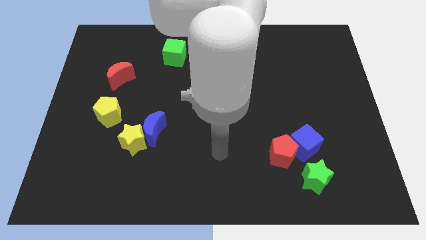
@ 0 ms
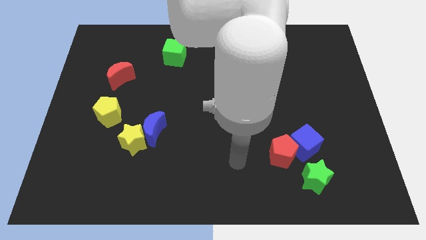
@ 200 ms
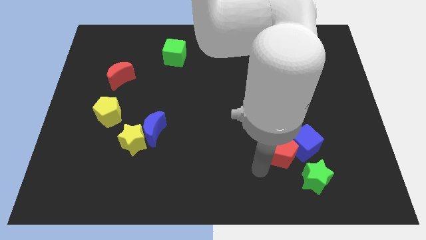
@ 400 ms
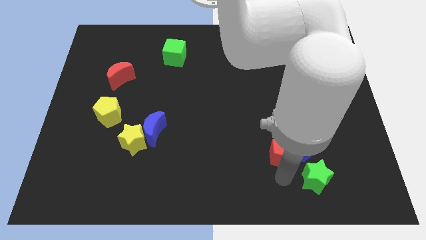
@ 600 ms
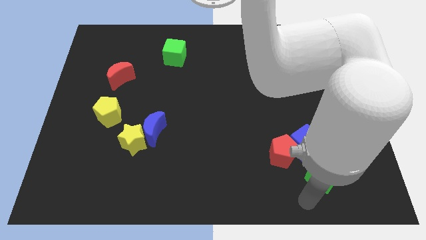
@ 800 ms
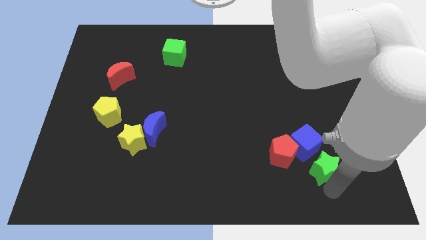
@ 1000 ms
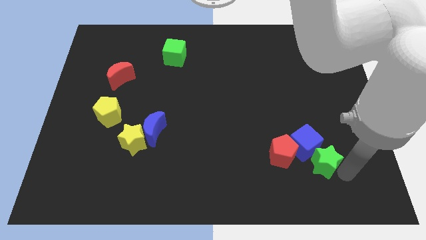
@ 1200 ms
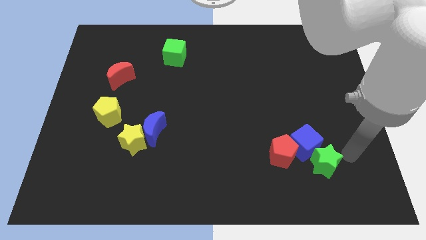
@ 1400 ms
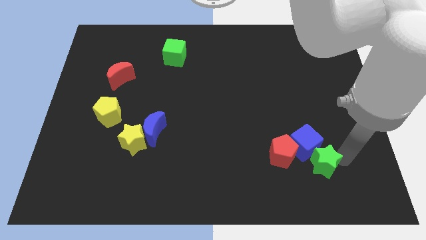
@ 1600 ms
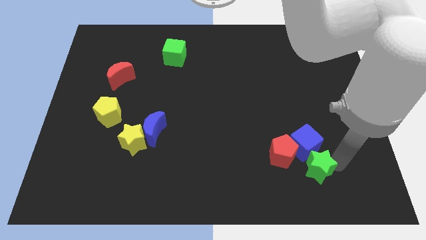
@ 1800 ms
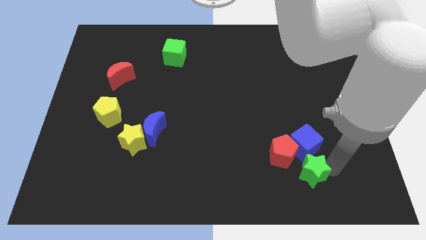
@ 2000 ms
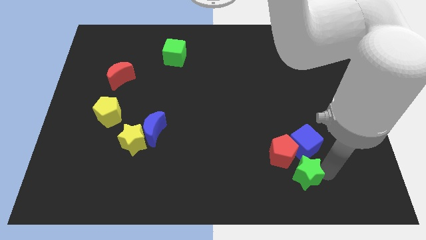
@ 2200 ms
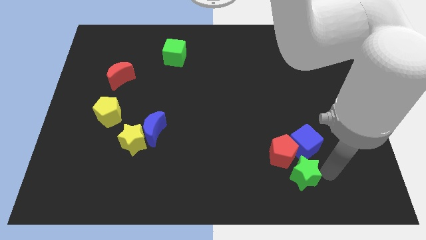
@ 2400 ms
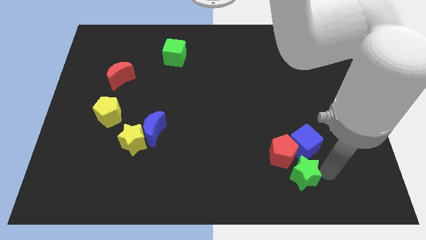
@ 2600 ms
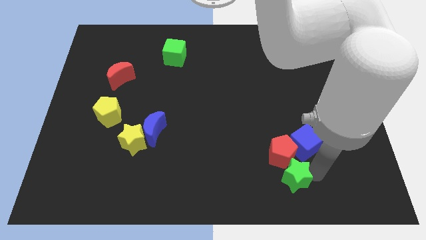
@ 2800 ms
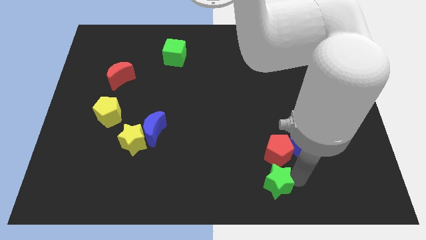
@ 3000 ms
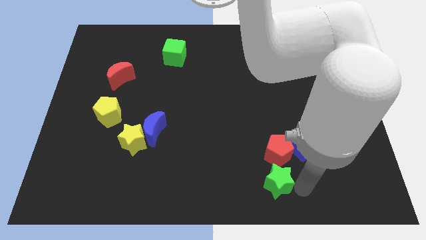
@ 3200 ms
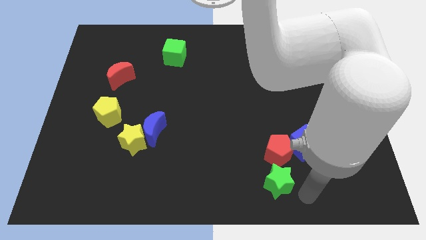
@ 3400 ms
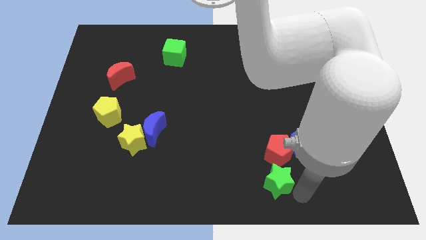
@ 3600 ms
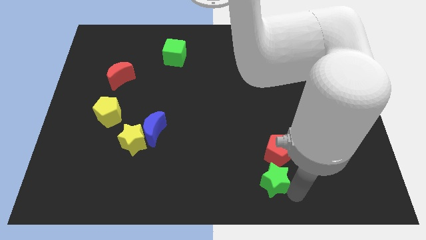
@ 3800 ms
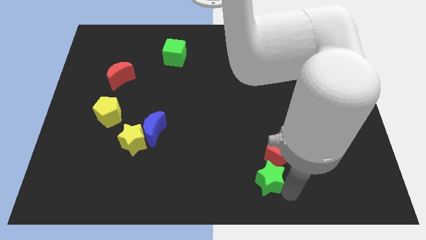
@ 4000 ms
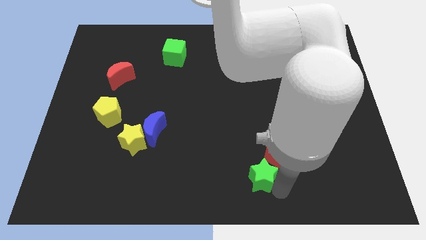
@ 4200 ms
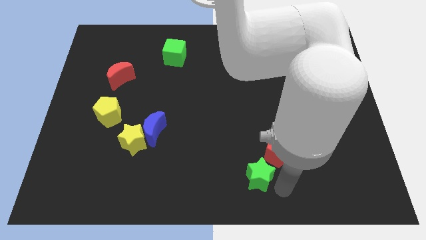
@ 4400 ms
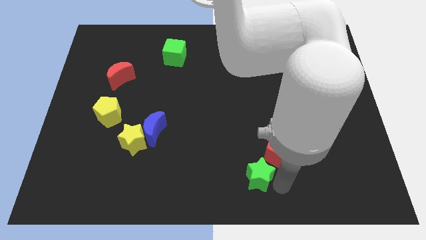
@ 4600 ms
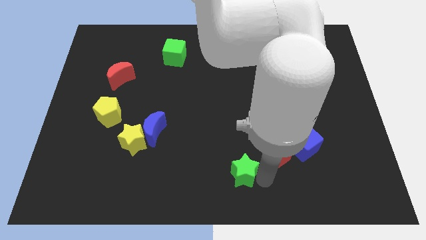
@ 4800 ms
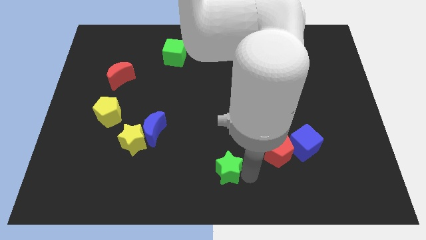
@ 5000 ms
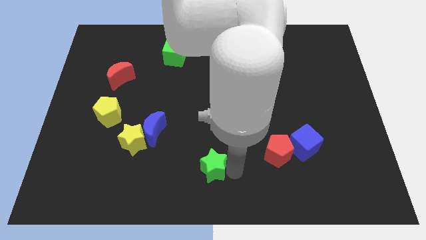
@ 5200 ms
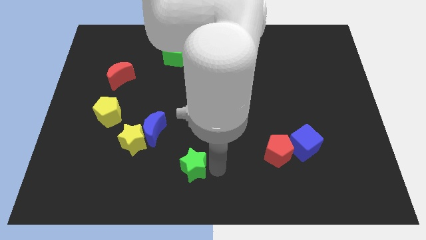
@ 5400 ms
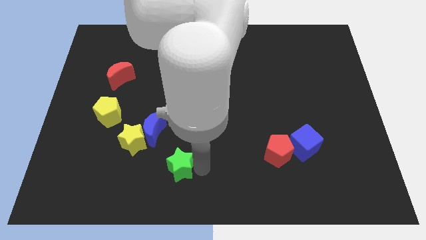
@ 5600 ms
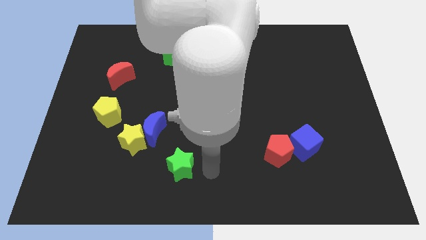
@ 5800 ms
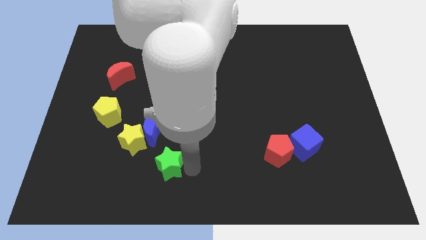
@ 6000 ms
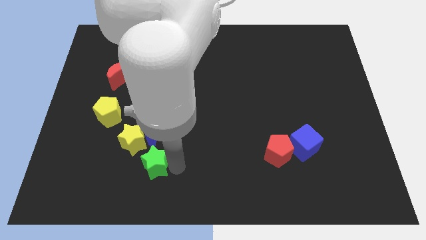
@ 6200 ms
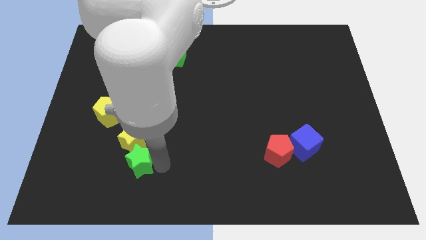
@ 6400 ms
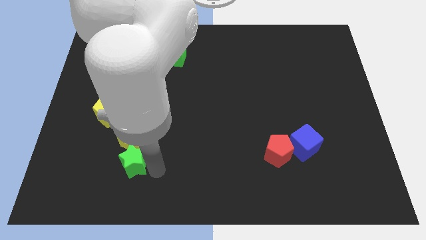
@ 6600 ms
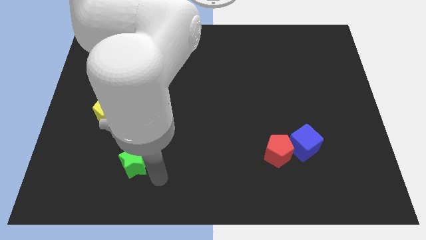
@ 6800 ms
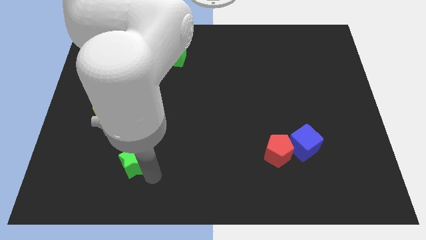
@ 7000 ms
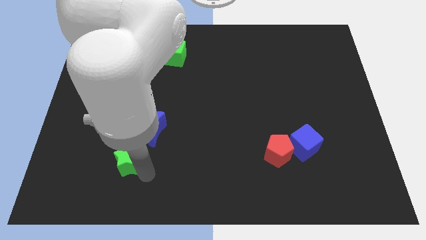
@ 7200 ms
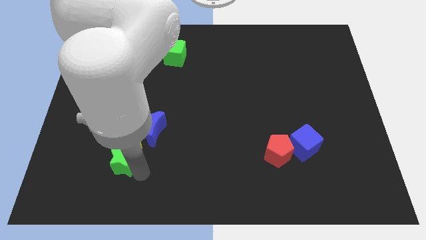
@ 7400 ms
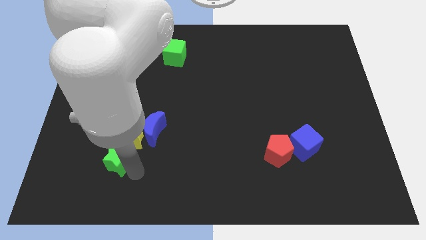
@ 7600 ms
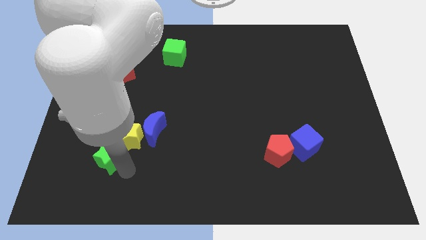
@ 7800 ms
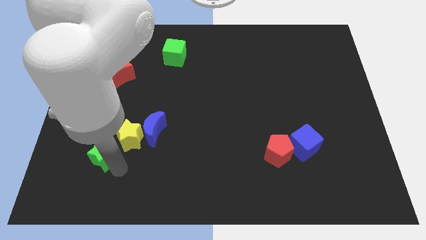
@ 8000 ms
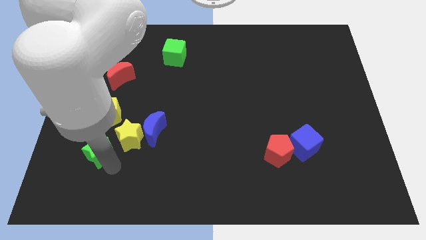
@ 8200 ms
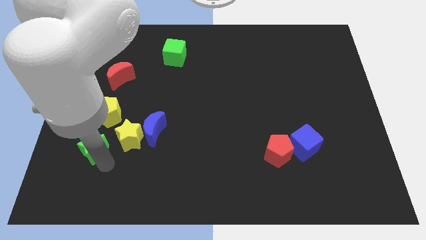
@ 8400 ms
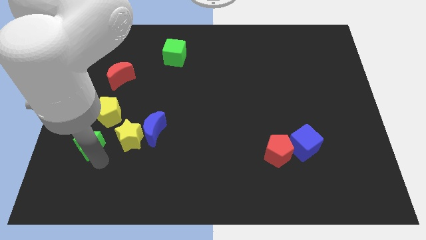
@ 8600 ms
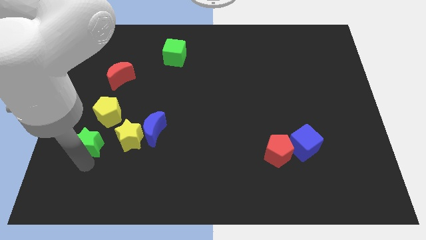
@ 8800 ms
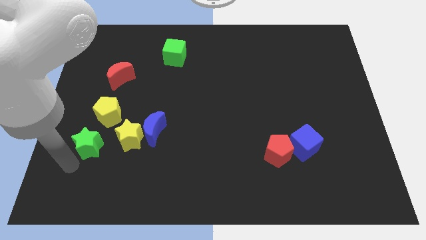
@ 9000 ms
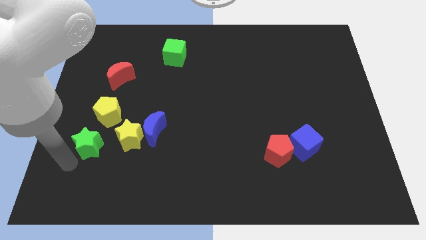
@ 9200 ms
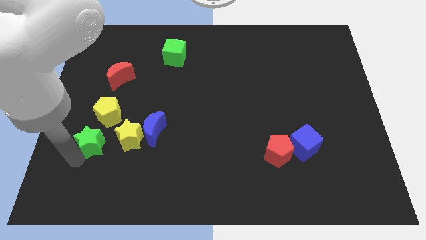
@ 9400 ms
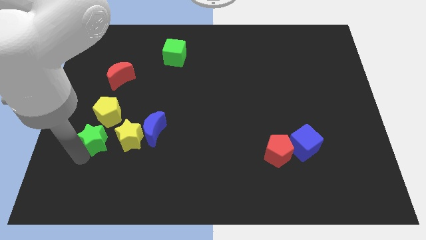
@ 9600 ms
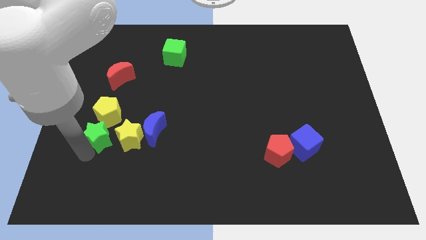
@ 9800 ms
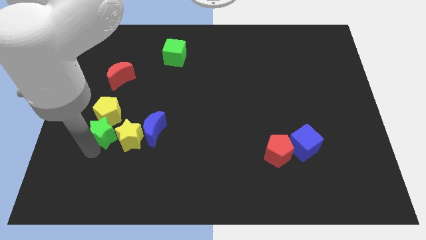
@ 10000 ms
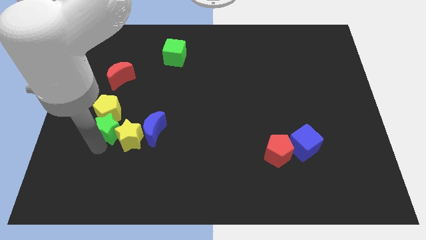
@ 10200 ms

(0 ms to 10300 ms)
move the green star below the red moon

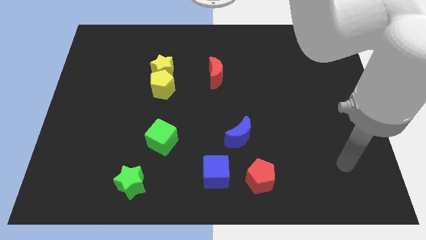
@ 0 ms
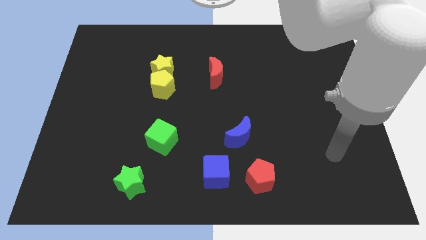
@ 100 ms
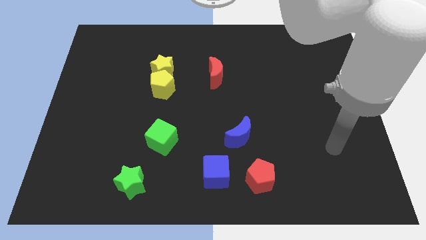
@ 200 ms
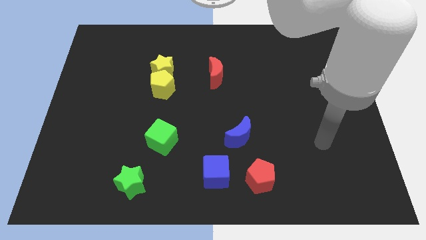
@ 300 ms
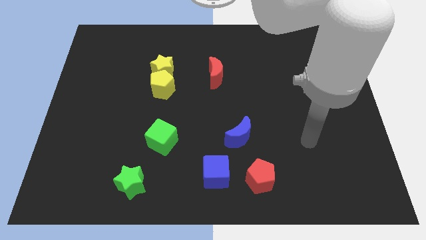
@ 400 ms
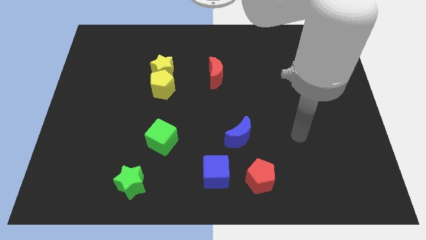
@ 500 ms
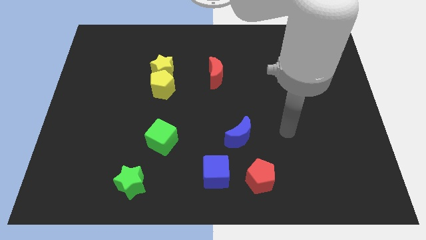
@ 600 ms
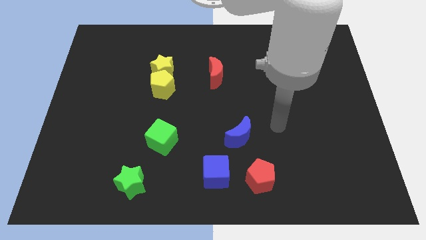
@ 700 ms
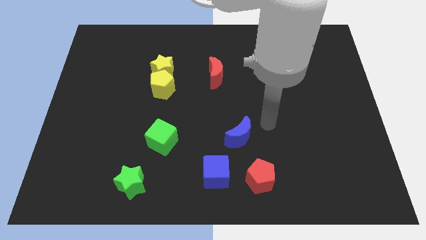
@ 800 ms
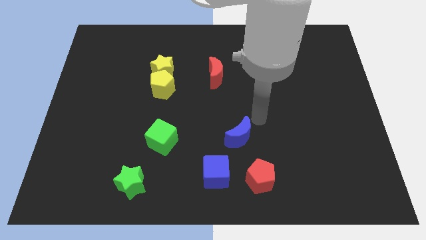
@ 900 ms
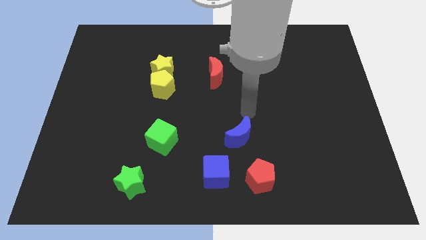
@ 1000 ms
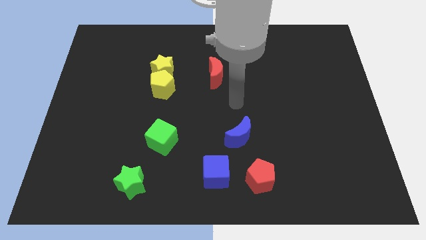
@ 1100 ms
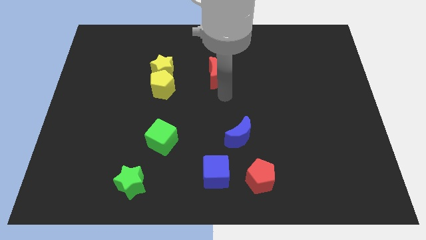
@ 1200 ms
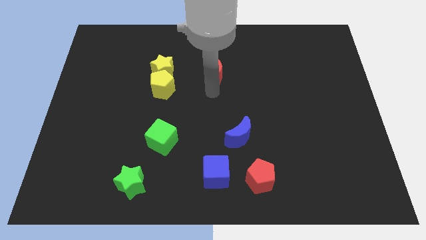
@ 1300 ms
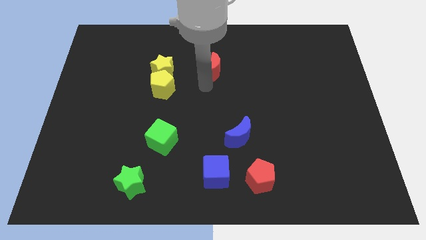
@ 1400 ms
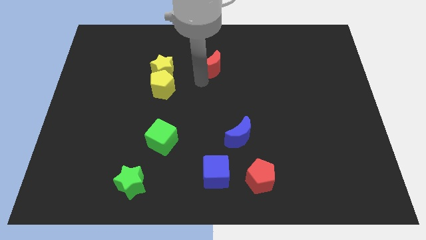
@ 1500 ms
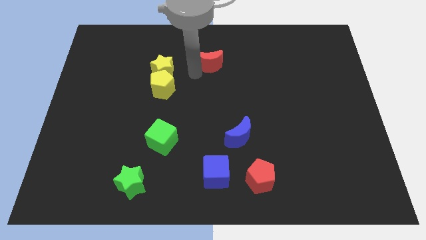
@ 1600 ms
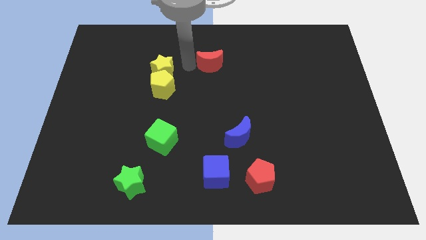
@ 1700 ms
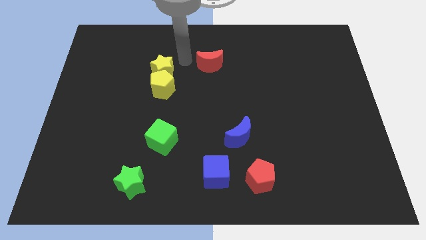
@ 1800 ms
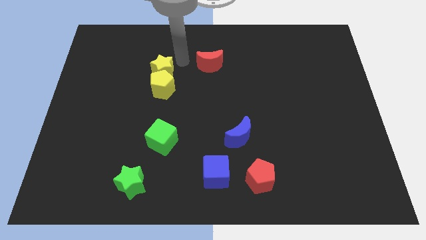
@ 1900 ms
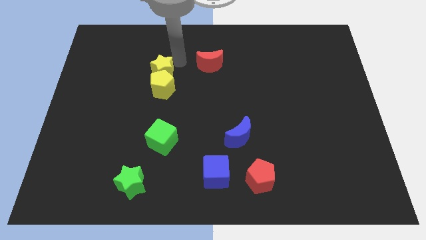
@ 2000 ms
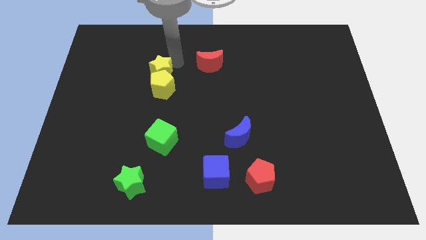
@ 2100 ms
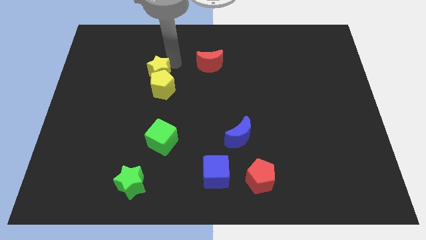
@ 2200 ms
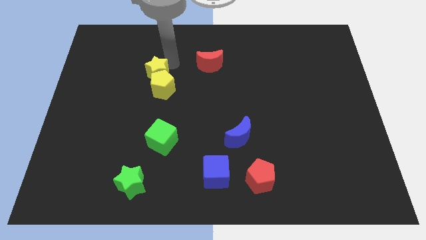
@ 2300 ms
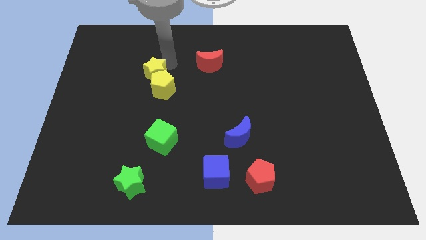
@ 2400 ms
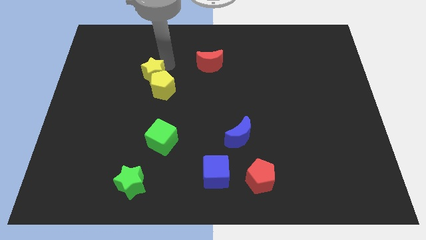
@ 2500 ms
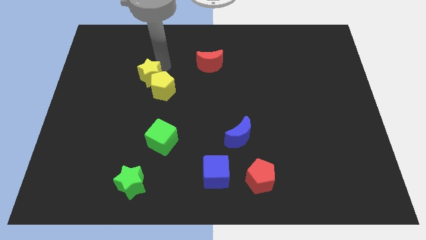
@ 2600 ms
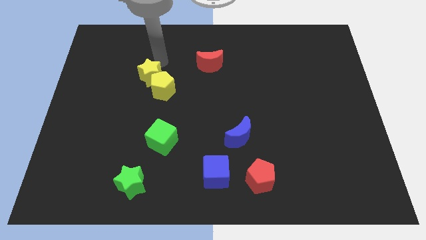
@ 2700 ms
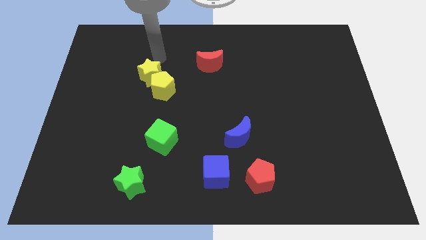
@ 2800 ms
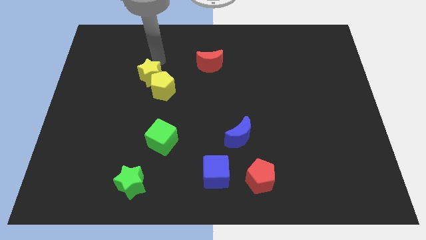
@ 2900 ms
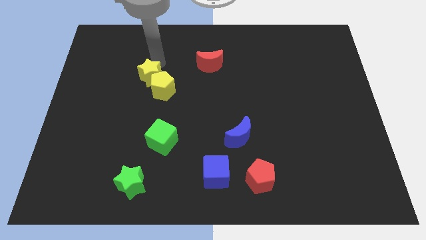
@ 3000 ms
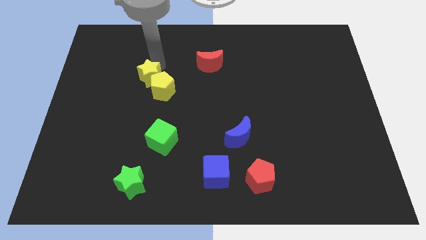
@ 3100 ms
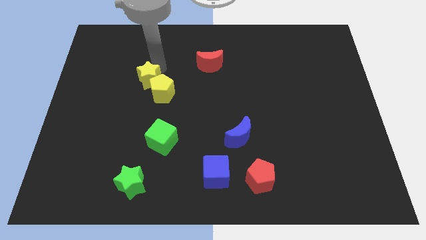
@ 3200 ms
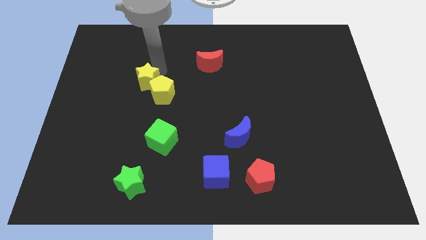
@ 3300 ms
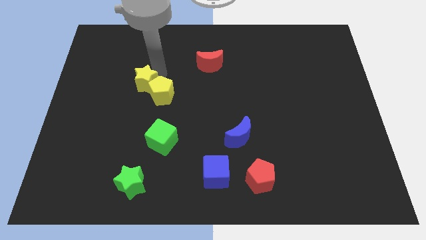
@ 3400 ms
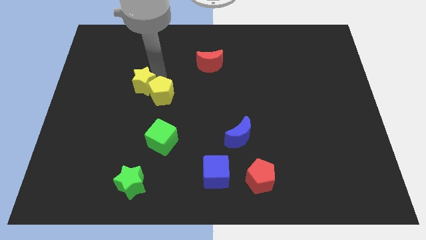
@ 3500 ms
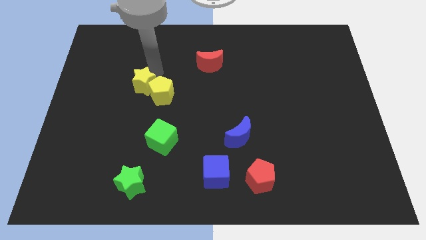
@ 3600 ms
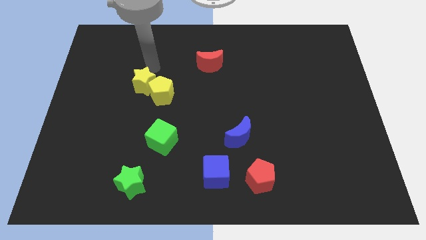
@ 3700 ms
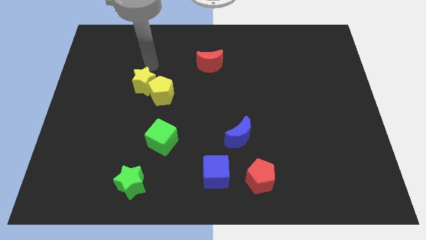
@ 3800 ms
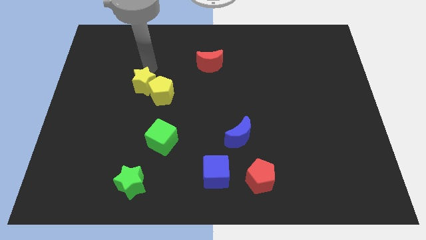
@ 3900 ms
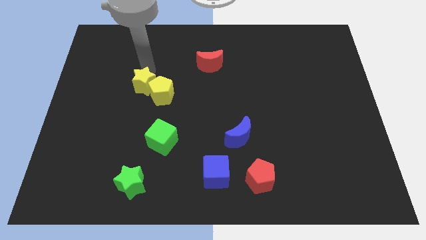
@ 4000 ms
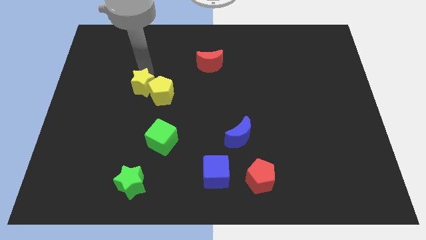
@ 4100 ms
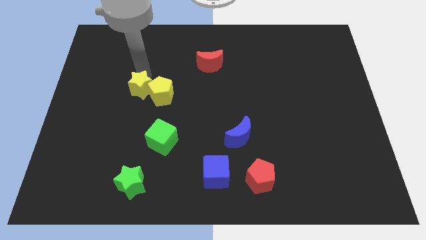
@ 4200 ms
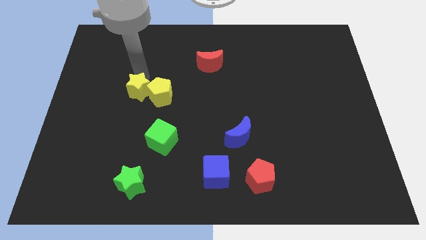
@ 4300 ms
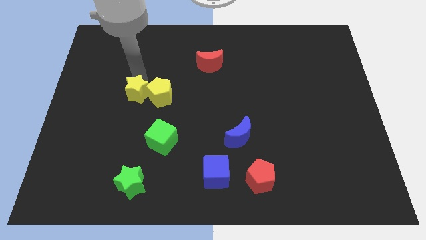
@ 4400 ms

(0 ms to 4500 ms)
move the yellow star to the bottom left of the yellow pentagon
